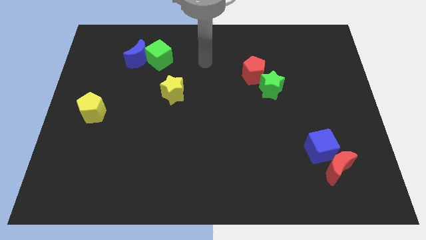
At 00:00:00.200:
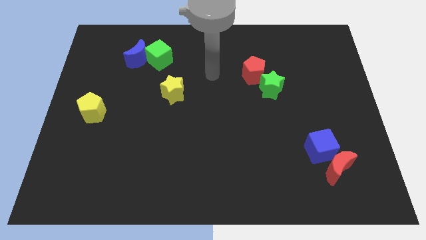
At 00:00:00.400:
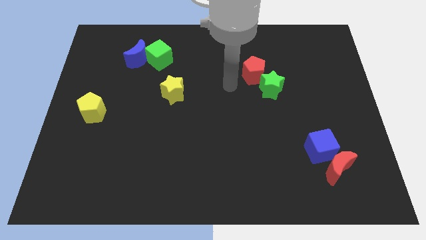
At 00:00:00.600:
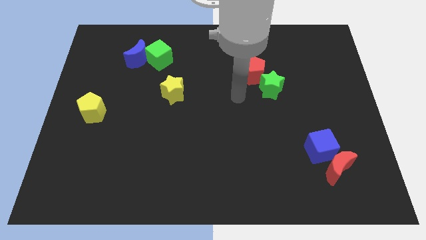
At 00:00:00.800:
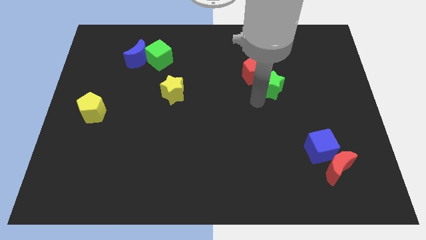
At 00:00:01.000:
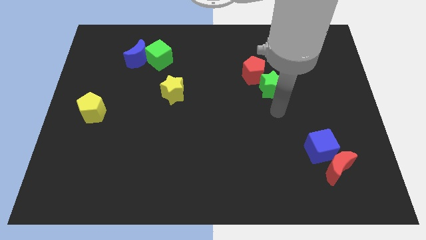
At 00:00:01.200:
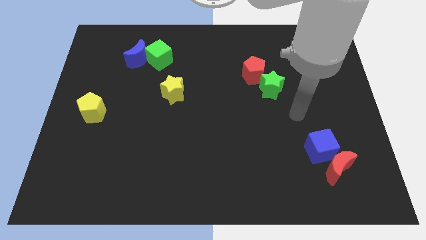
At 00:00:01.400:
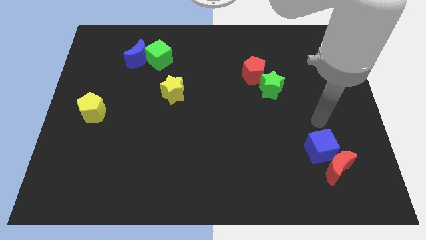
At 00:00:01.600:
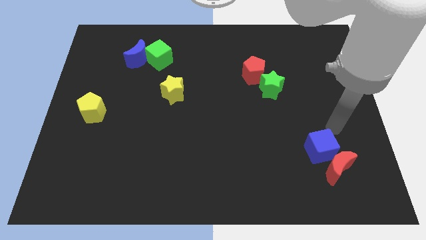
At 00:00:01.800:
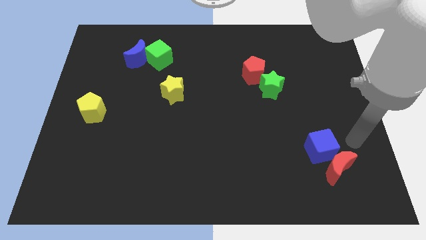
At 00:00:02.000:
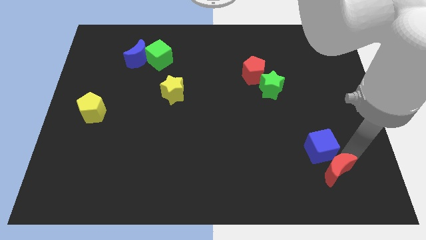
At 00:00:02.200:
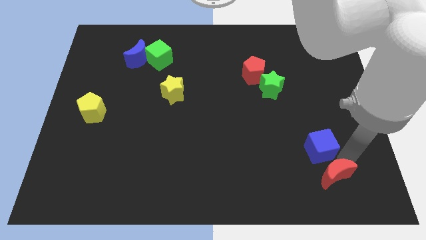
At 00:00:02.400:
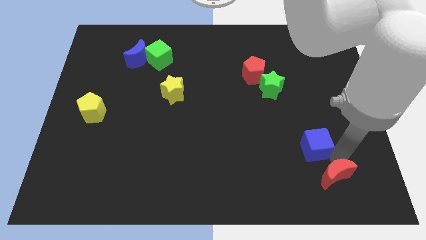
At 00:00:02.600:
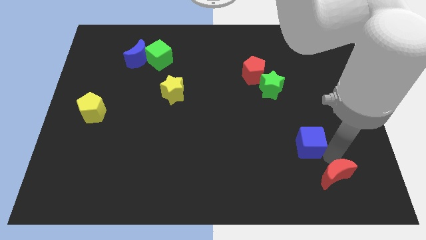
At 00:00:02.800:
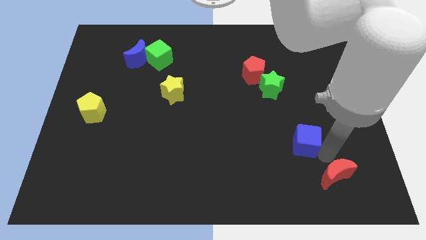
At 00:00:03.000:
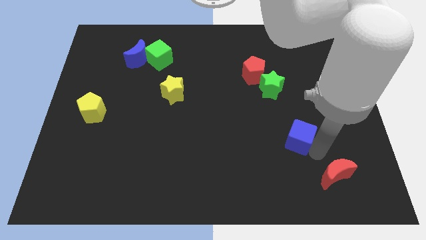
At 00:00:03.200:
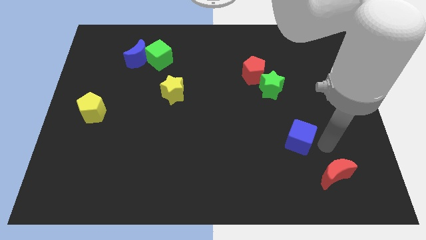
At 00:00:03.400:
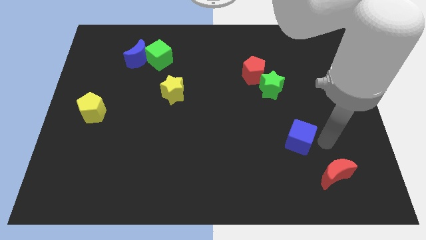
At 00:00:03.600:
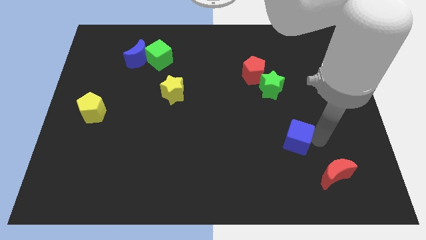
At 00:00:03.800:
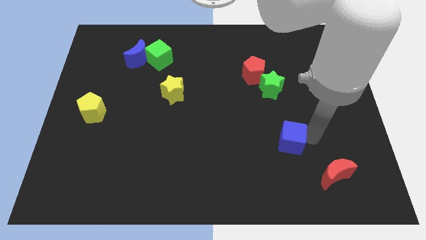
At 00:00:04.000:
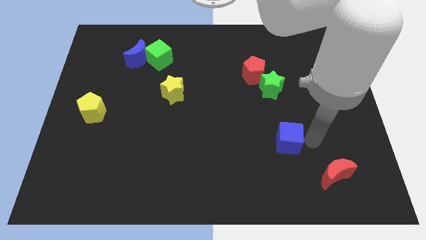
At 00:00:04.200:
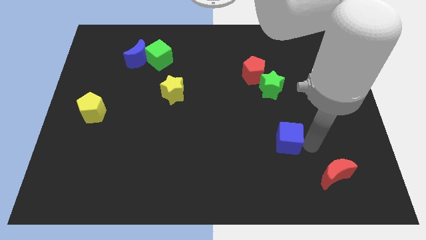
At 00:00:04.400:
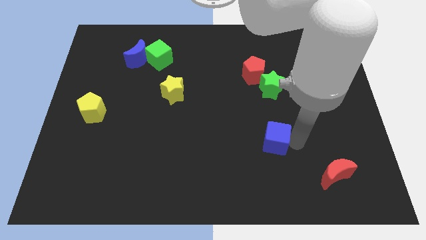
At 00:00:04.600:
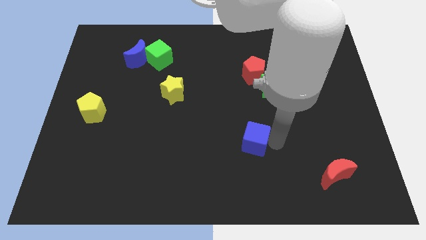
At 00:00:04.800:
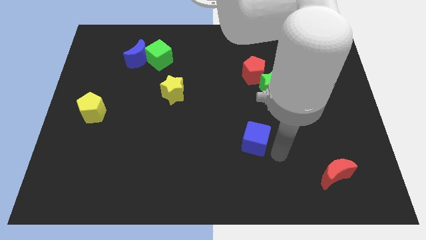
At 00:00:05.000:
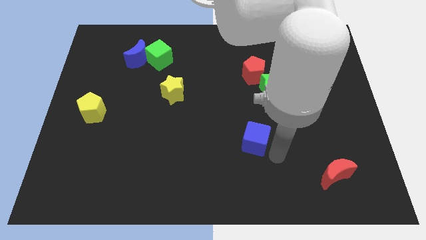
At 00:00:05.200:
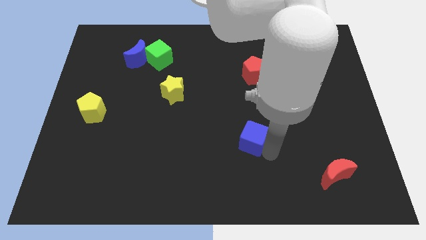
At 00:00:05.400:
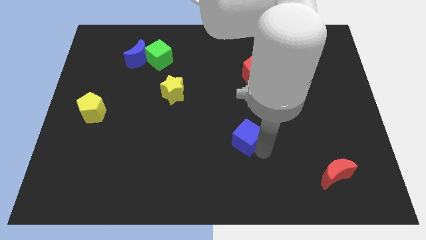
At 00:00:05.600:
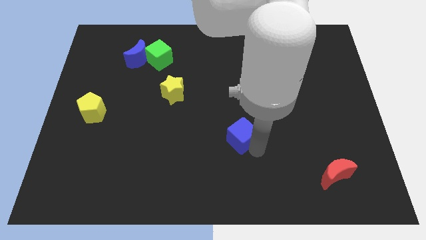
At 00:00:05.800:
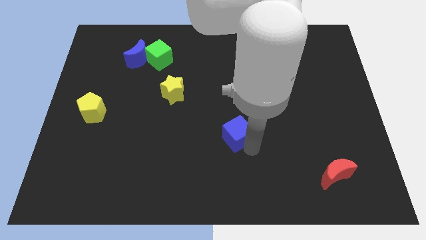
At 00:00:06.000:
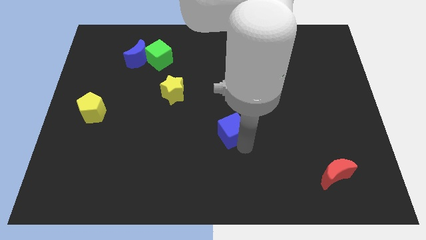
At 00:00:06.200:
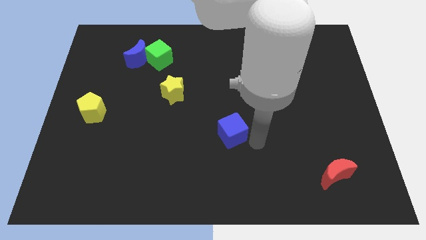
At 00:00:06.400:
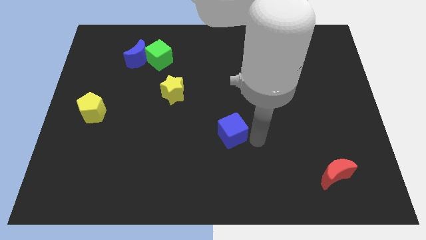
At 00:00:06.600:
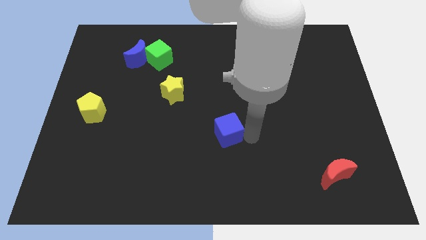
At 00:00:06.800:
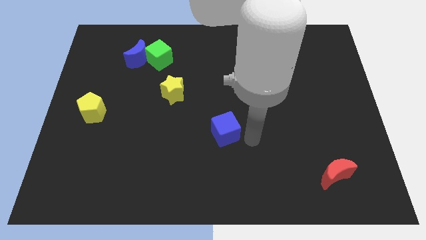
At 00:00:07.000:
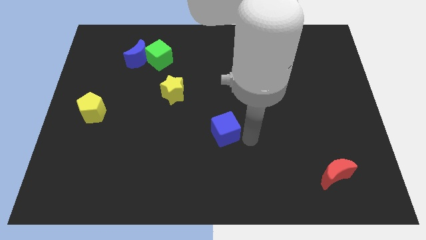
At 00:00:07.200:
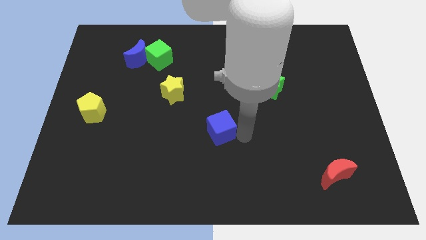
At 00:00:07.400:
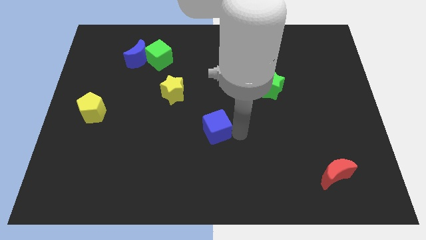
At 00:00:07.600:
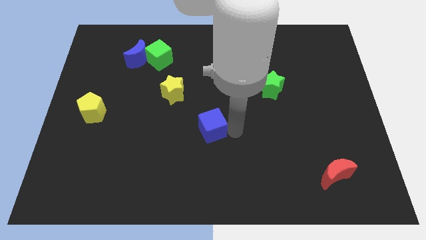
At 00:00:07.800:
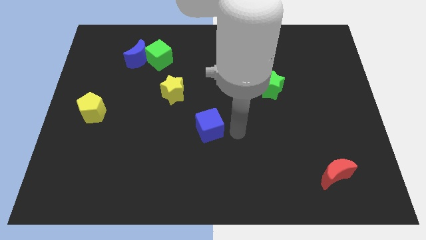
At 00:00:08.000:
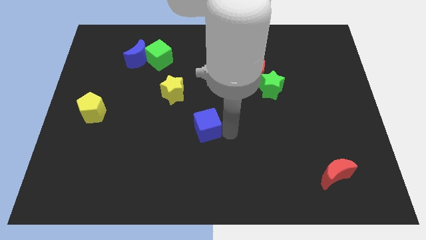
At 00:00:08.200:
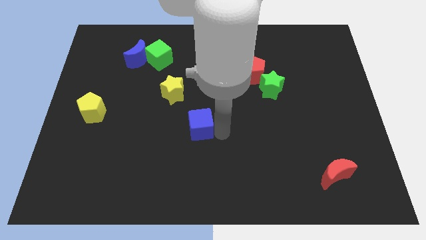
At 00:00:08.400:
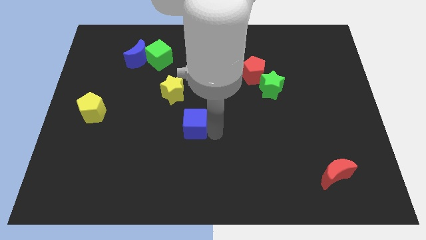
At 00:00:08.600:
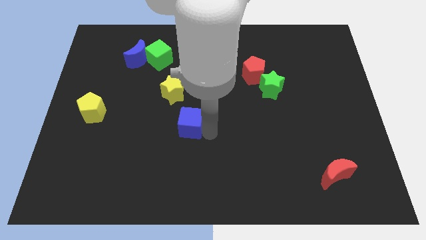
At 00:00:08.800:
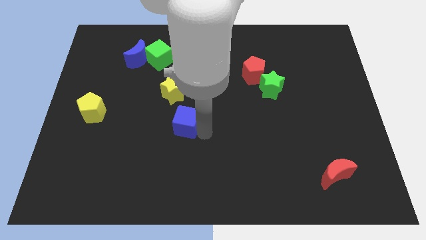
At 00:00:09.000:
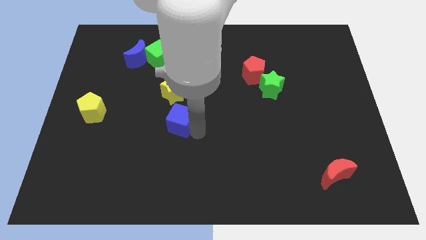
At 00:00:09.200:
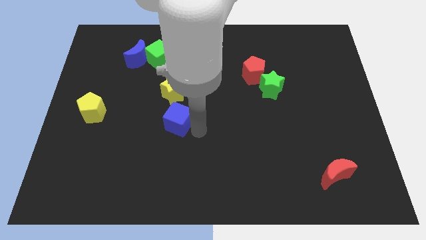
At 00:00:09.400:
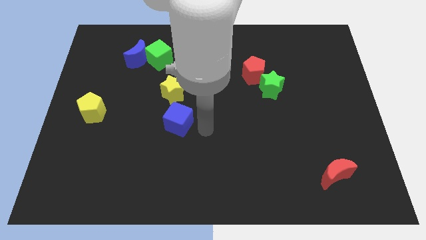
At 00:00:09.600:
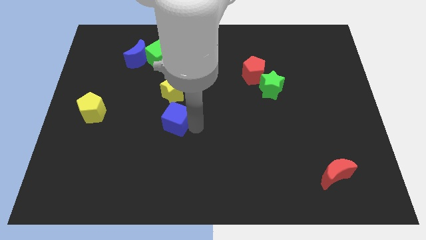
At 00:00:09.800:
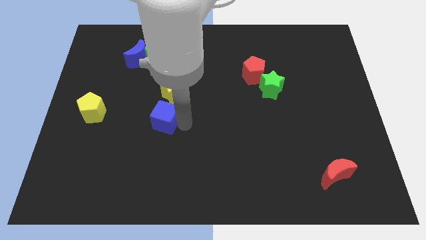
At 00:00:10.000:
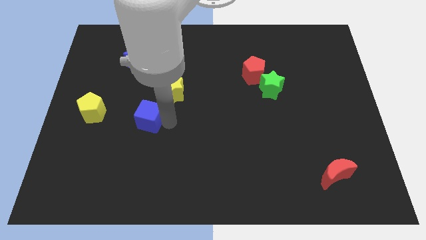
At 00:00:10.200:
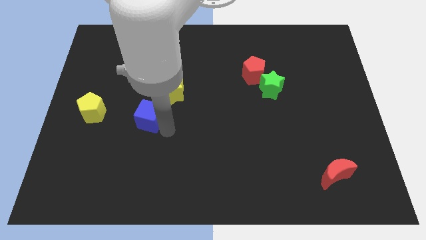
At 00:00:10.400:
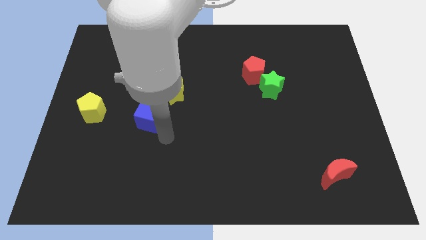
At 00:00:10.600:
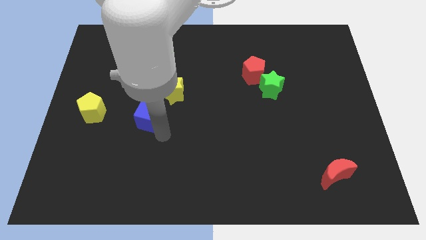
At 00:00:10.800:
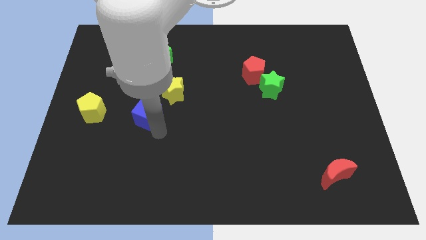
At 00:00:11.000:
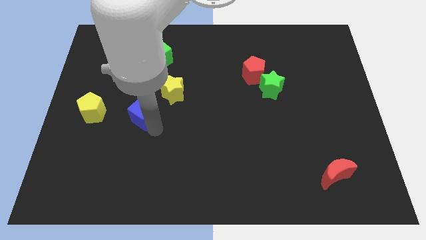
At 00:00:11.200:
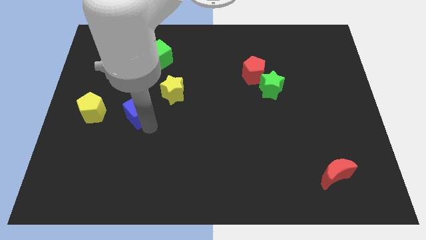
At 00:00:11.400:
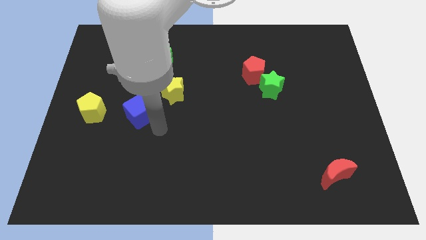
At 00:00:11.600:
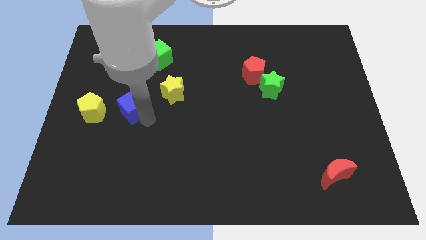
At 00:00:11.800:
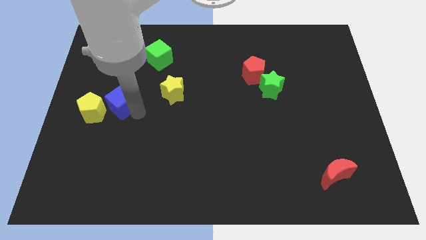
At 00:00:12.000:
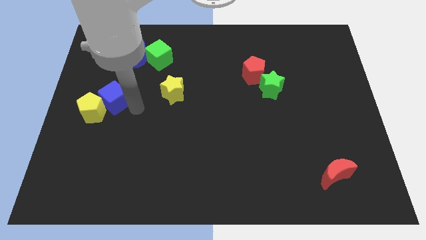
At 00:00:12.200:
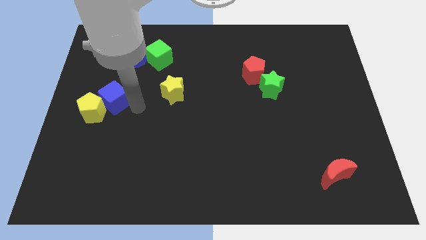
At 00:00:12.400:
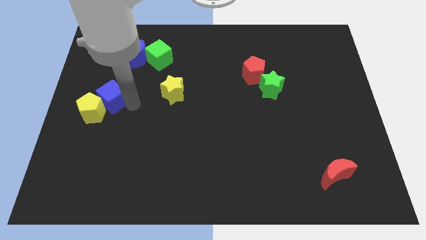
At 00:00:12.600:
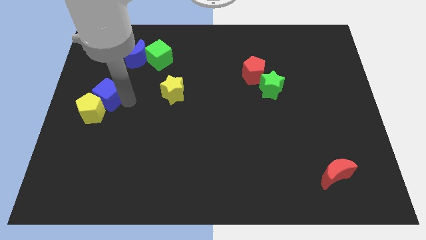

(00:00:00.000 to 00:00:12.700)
put the blue cube to the center left
